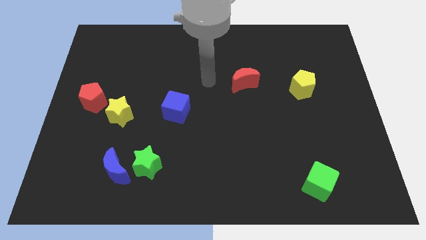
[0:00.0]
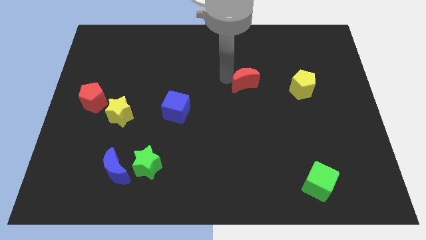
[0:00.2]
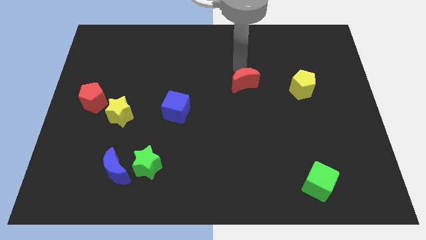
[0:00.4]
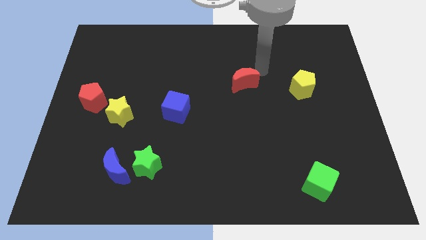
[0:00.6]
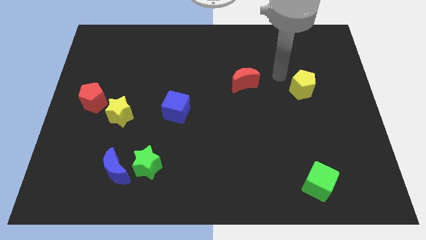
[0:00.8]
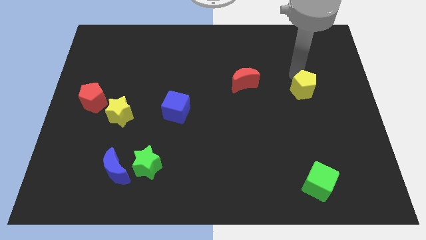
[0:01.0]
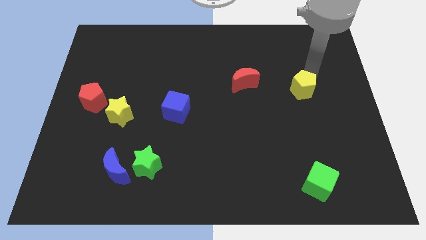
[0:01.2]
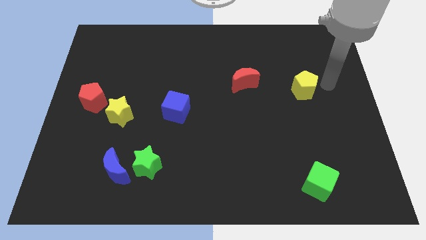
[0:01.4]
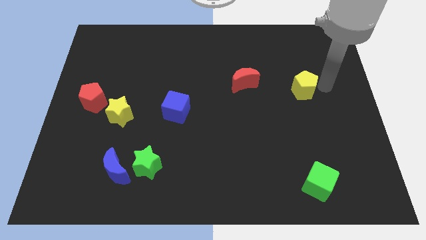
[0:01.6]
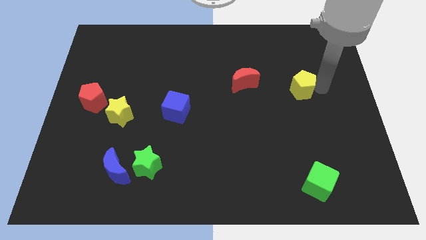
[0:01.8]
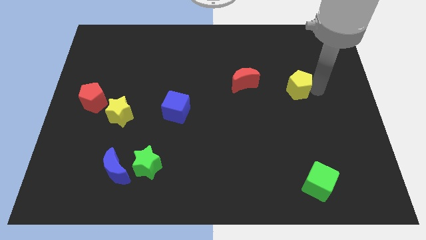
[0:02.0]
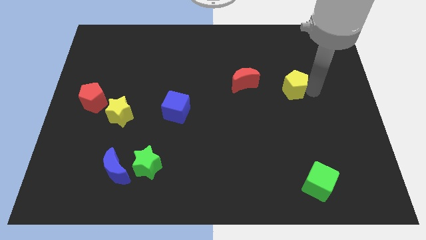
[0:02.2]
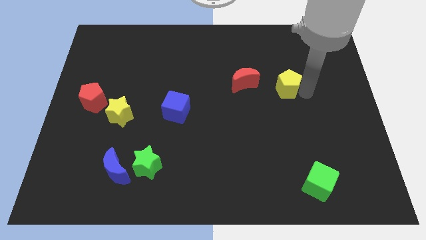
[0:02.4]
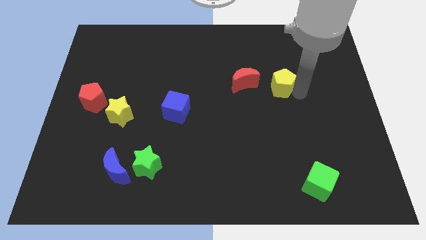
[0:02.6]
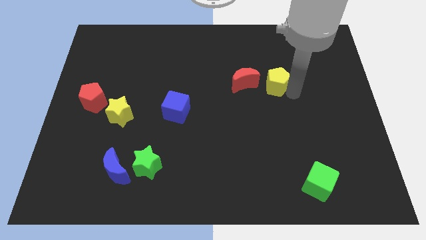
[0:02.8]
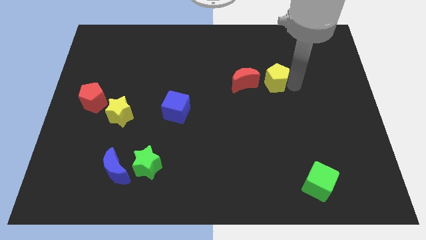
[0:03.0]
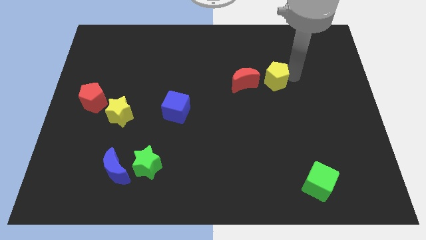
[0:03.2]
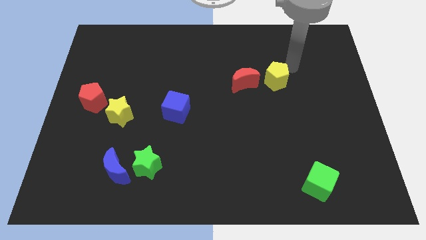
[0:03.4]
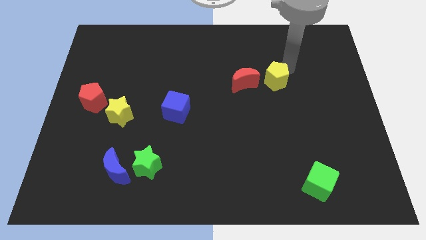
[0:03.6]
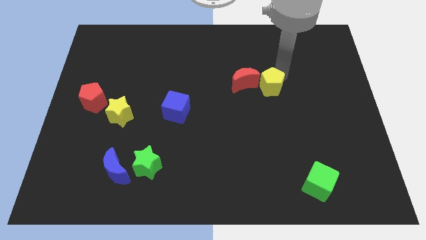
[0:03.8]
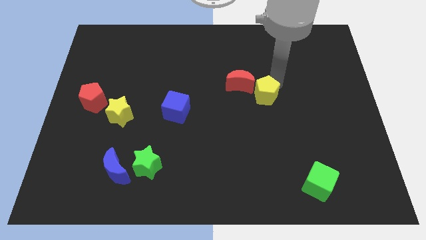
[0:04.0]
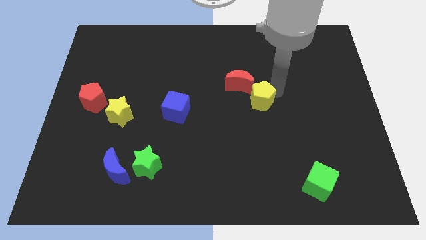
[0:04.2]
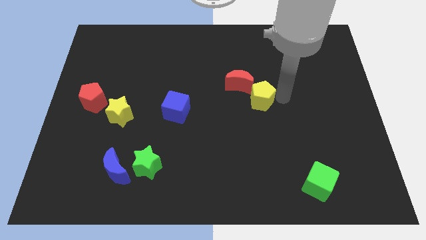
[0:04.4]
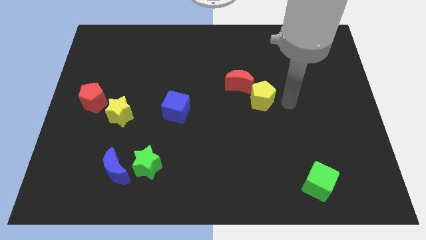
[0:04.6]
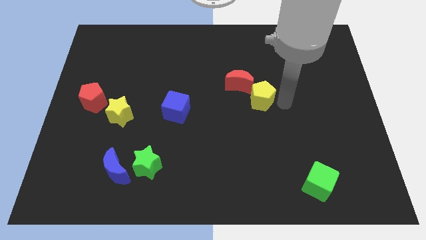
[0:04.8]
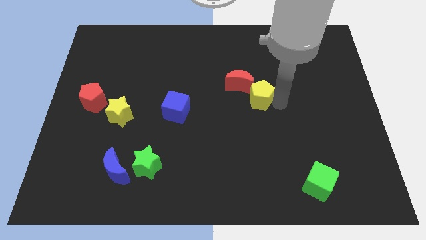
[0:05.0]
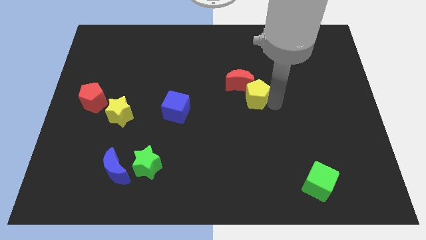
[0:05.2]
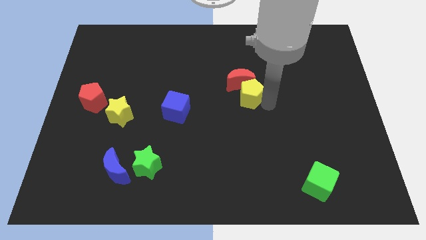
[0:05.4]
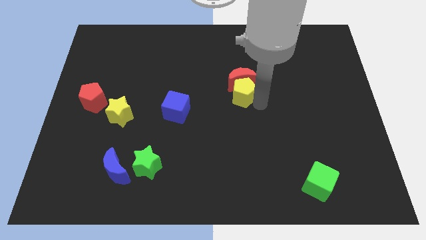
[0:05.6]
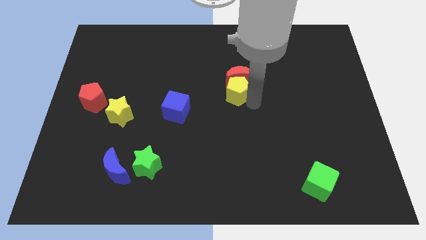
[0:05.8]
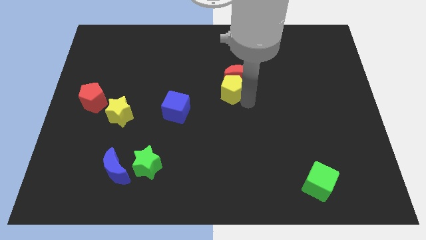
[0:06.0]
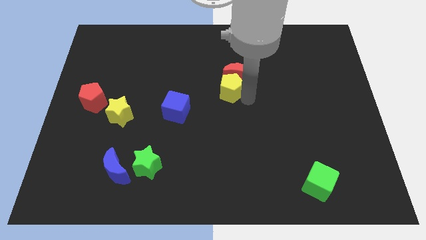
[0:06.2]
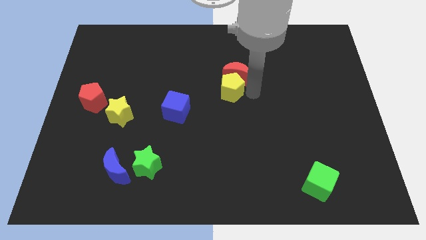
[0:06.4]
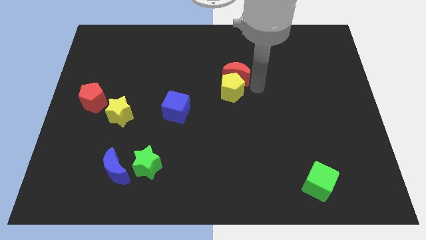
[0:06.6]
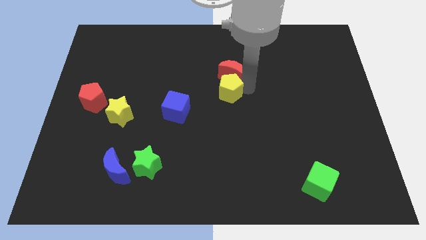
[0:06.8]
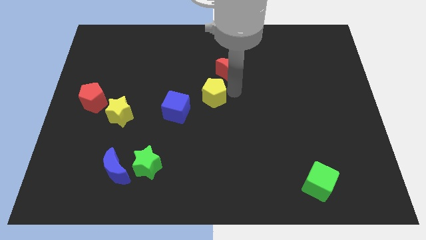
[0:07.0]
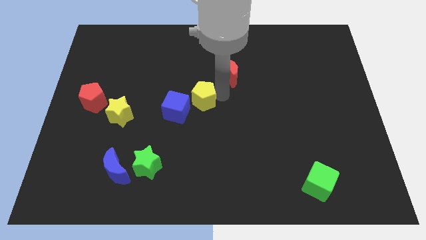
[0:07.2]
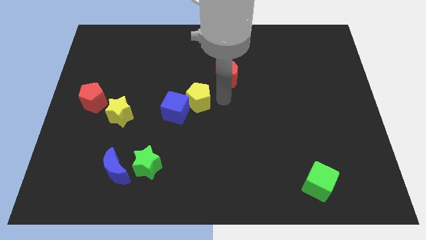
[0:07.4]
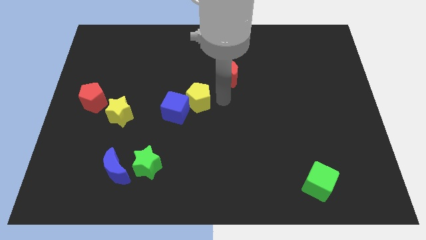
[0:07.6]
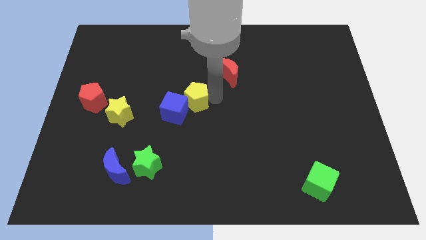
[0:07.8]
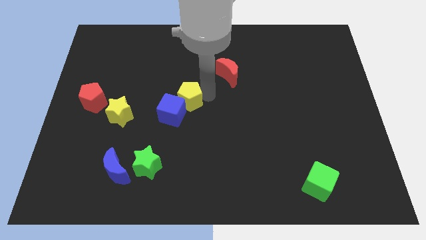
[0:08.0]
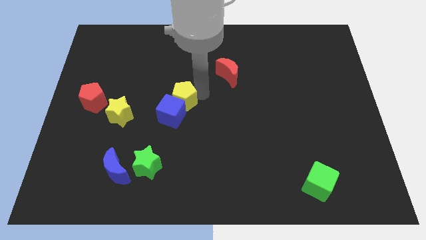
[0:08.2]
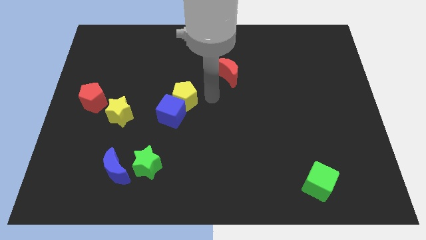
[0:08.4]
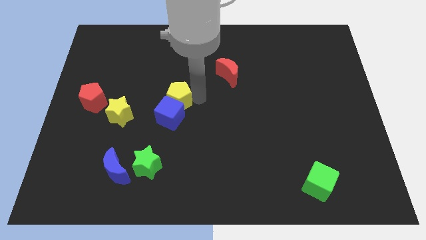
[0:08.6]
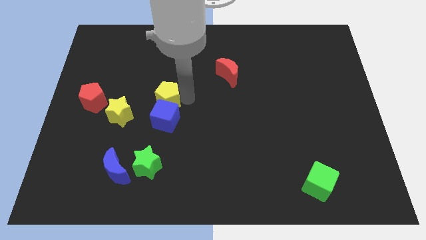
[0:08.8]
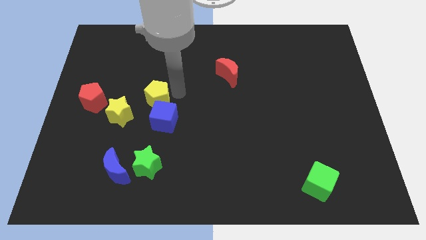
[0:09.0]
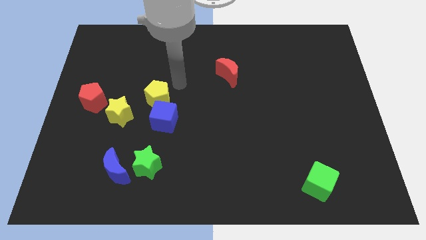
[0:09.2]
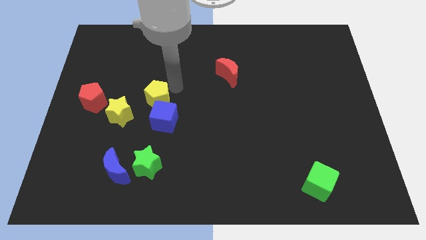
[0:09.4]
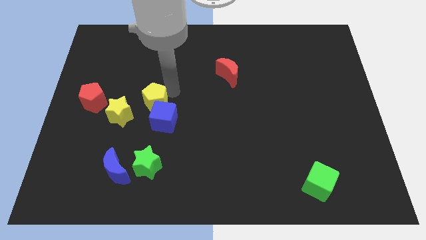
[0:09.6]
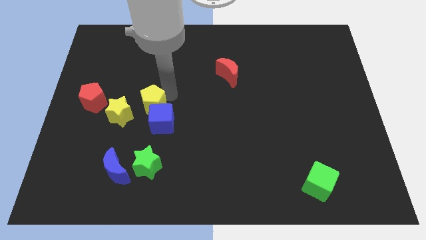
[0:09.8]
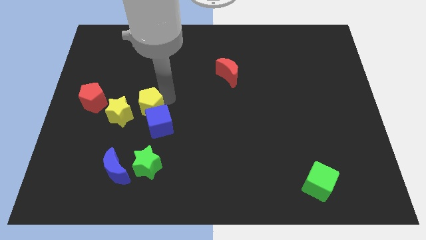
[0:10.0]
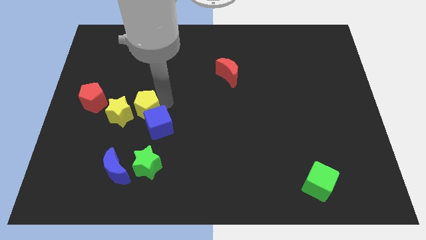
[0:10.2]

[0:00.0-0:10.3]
move the yellow pentagon next to the yellow star

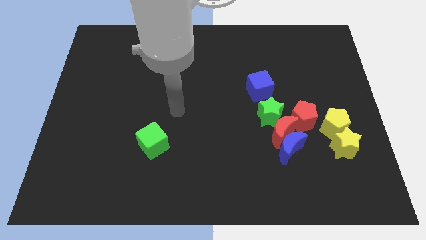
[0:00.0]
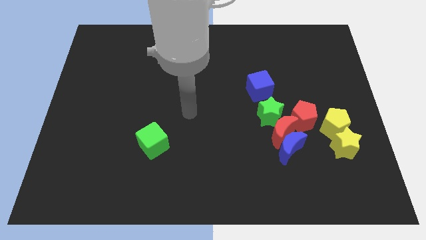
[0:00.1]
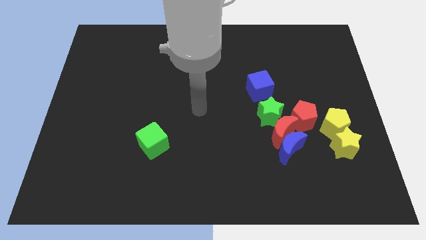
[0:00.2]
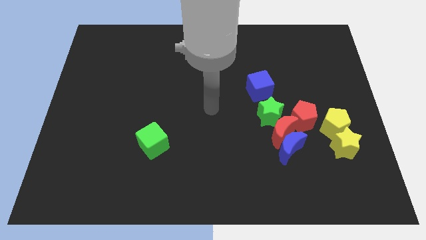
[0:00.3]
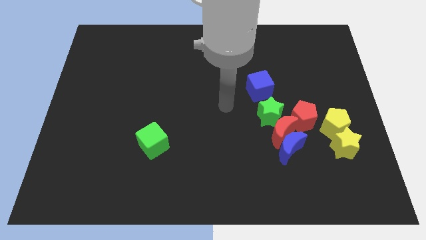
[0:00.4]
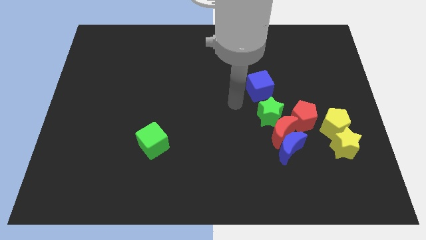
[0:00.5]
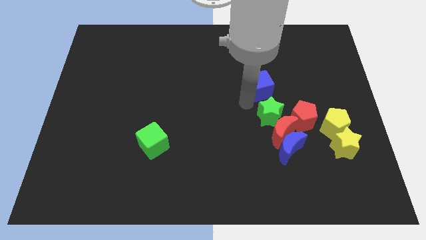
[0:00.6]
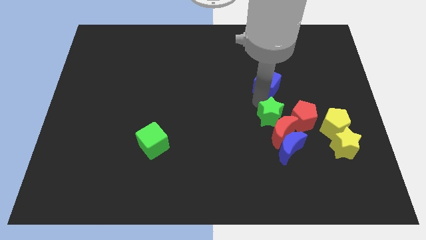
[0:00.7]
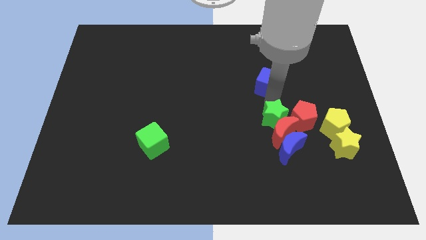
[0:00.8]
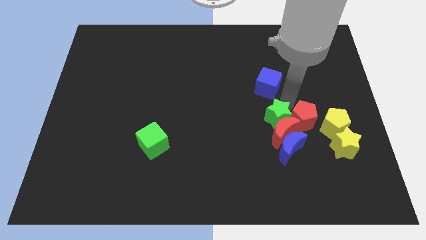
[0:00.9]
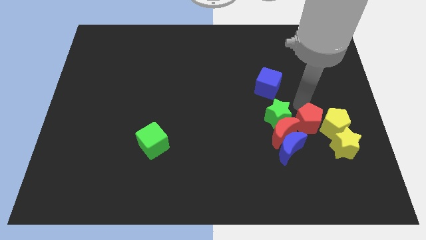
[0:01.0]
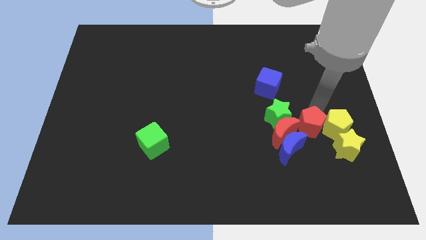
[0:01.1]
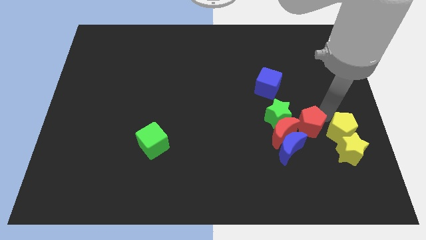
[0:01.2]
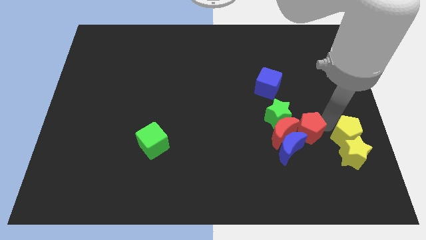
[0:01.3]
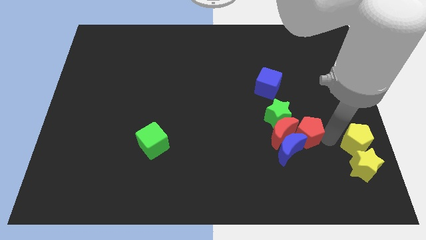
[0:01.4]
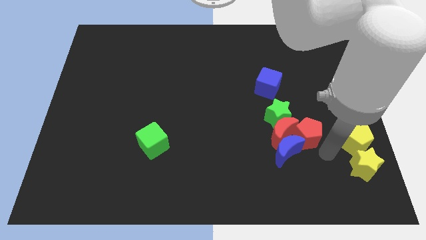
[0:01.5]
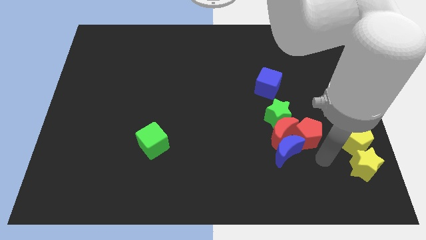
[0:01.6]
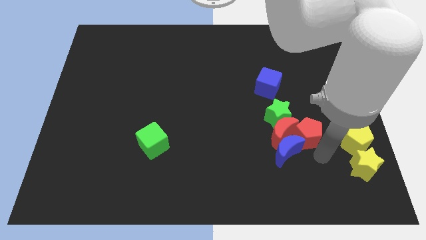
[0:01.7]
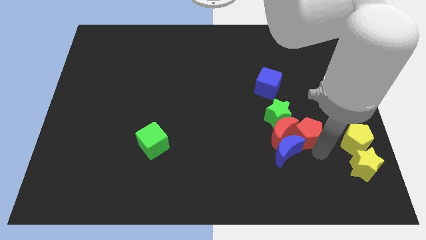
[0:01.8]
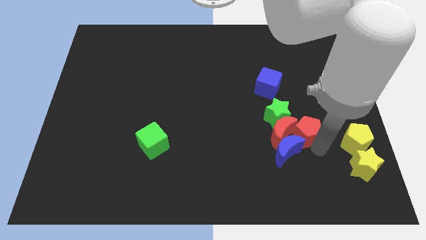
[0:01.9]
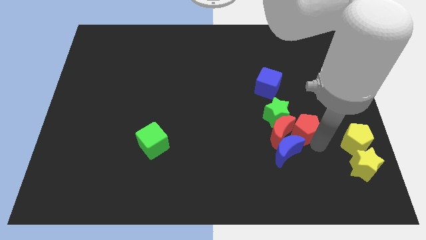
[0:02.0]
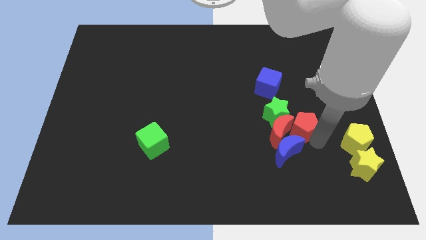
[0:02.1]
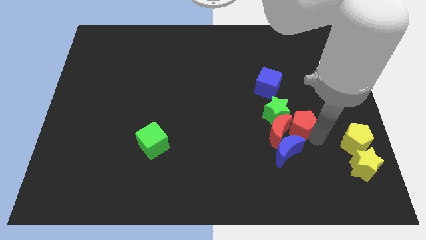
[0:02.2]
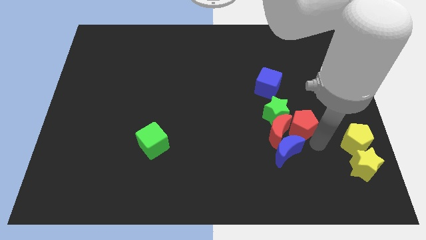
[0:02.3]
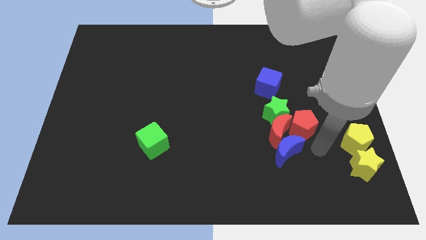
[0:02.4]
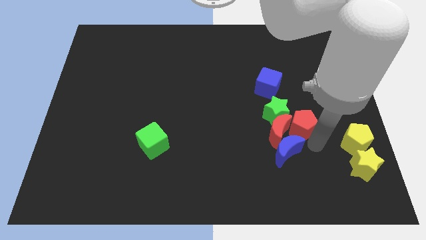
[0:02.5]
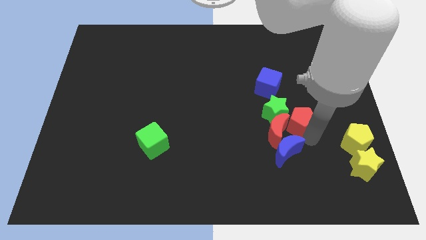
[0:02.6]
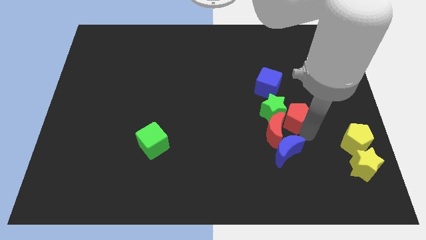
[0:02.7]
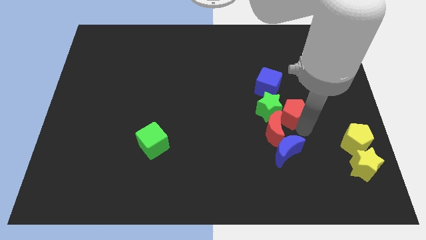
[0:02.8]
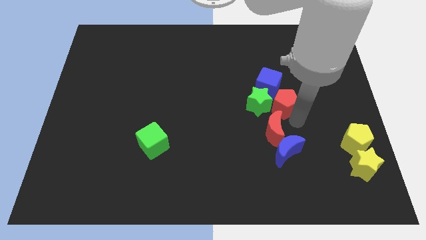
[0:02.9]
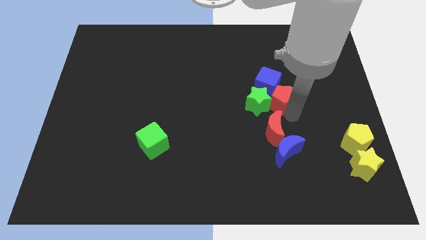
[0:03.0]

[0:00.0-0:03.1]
move the red pentagon close to the blue cube
